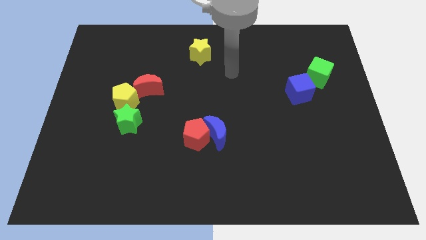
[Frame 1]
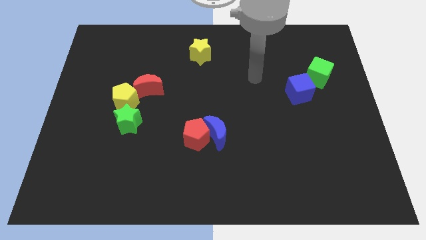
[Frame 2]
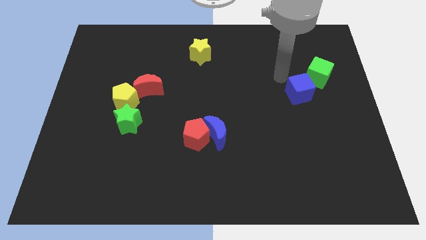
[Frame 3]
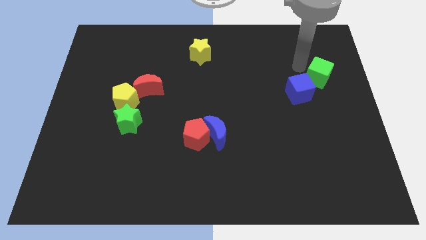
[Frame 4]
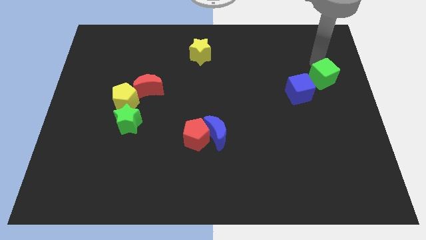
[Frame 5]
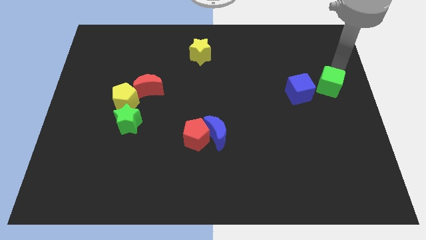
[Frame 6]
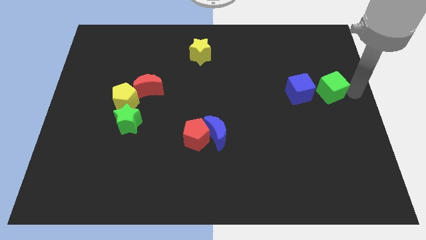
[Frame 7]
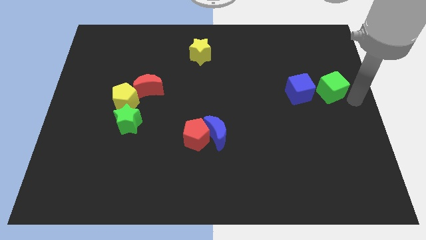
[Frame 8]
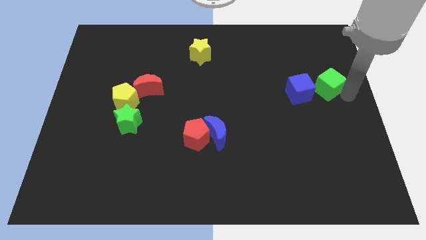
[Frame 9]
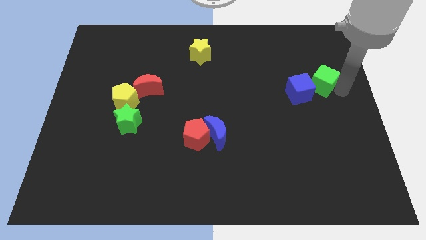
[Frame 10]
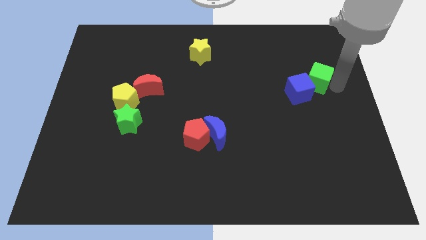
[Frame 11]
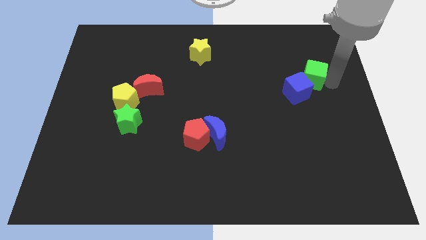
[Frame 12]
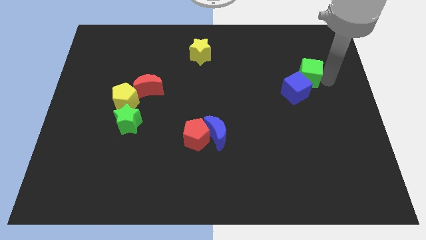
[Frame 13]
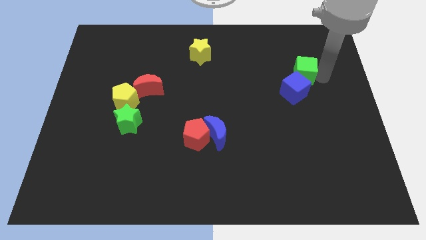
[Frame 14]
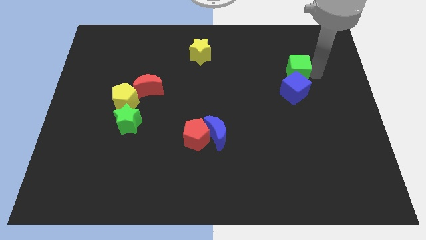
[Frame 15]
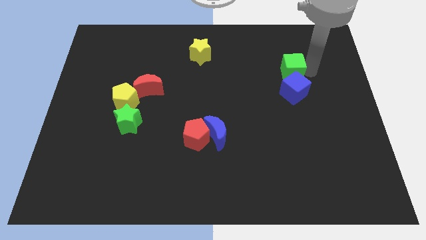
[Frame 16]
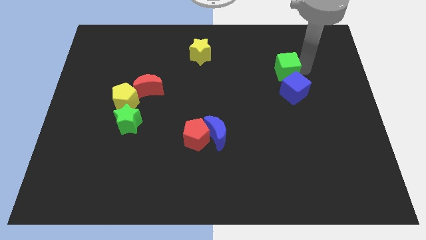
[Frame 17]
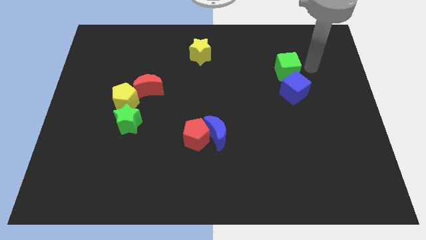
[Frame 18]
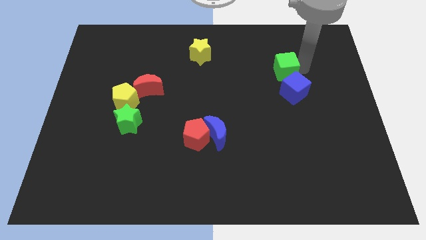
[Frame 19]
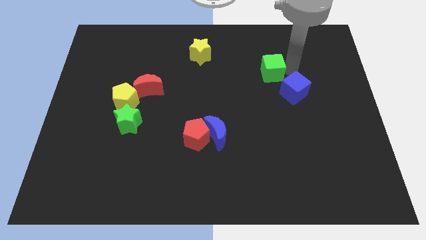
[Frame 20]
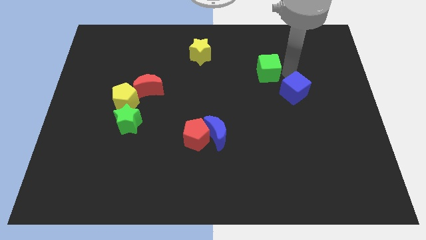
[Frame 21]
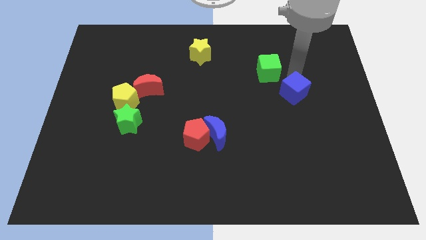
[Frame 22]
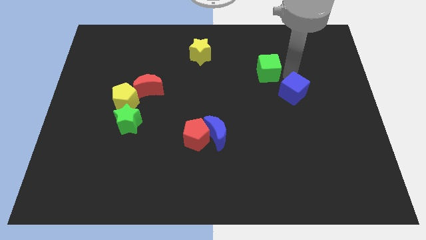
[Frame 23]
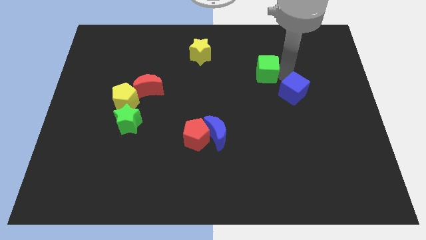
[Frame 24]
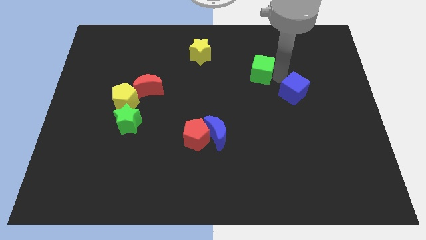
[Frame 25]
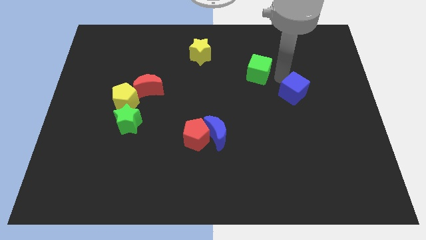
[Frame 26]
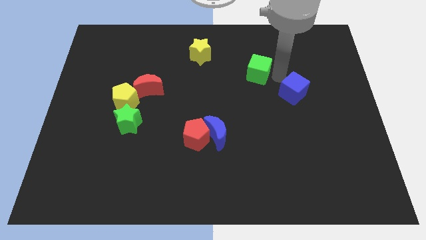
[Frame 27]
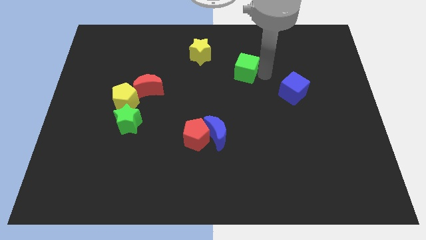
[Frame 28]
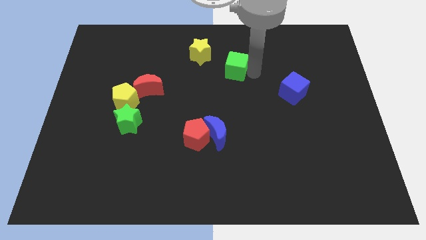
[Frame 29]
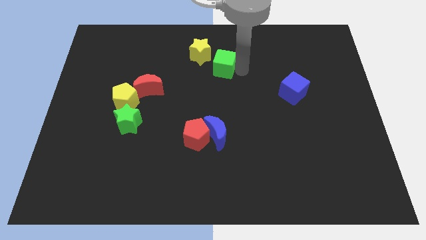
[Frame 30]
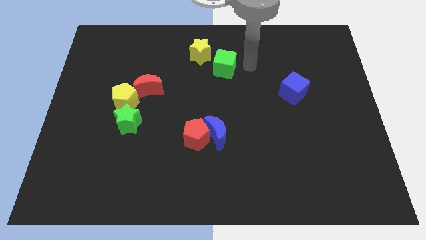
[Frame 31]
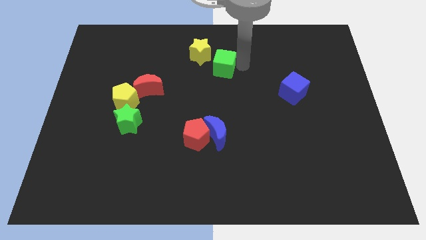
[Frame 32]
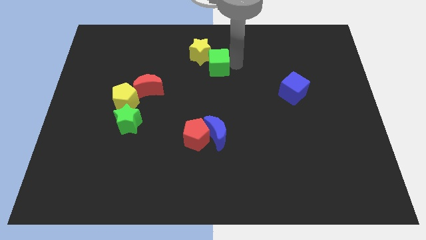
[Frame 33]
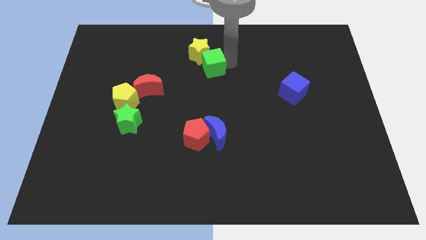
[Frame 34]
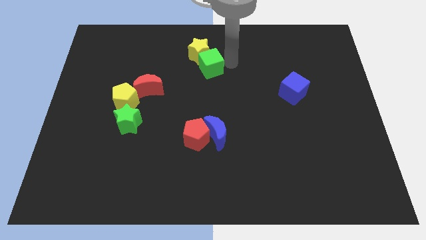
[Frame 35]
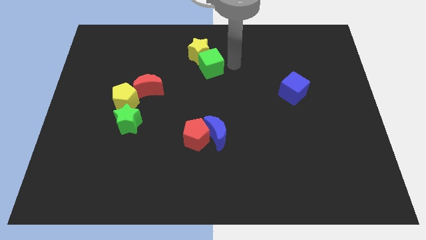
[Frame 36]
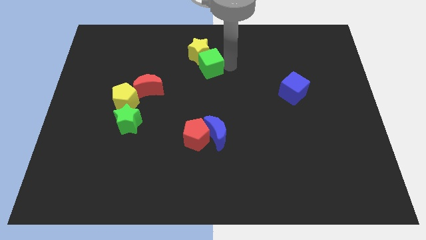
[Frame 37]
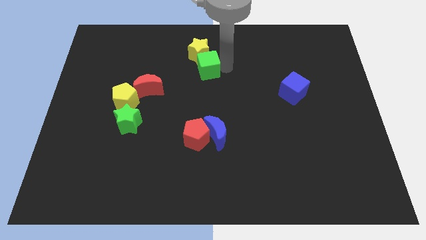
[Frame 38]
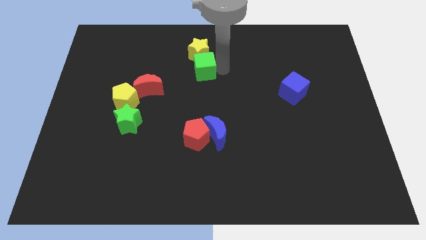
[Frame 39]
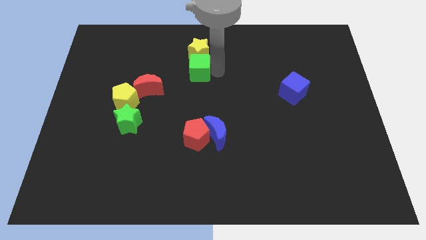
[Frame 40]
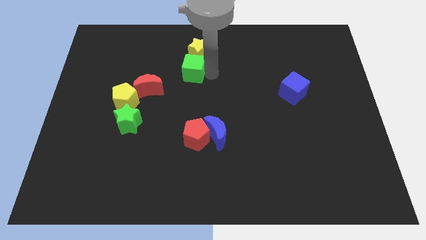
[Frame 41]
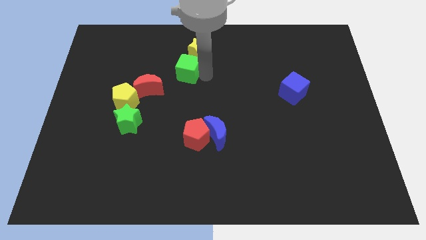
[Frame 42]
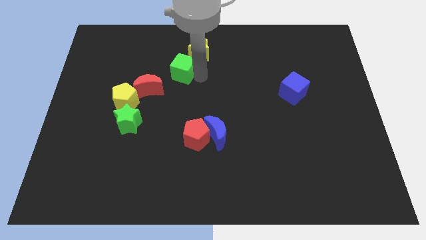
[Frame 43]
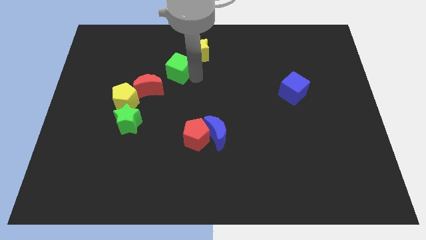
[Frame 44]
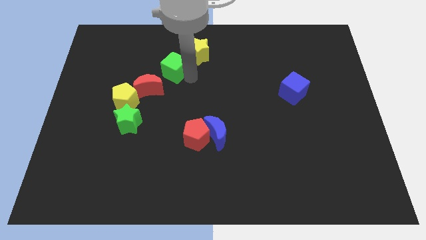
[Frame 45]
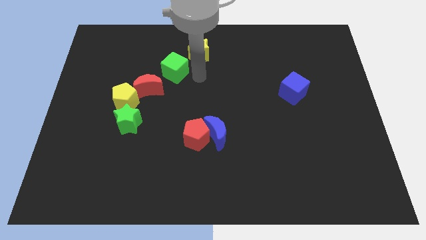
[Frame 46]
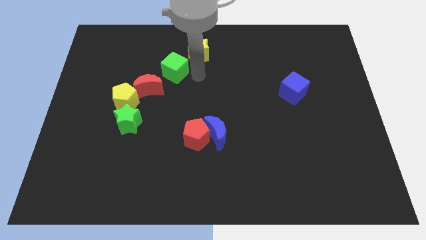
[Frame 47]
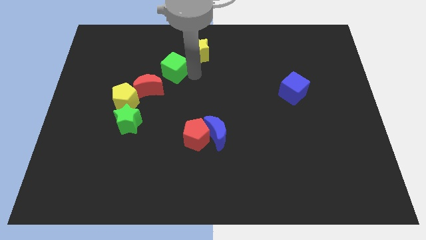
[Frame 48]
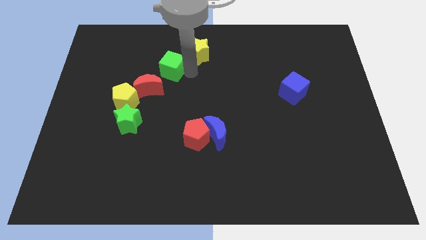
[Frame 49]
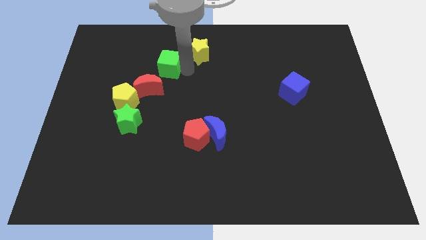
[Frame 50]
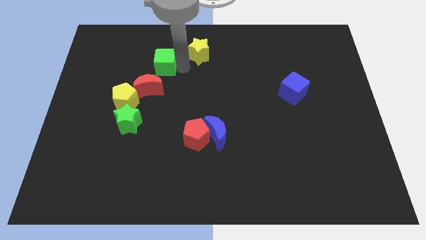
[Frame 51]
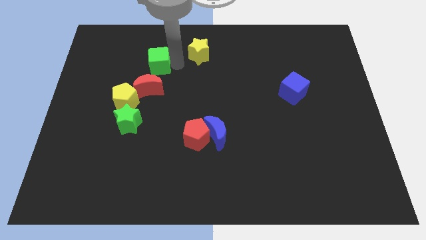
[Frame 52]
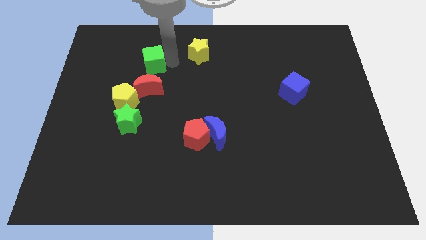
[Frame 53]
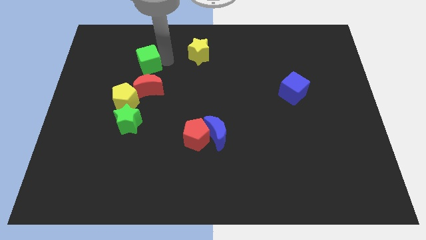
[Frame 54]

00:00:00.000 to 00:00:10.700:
move the green cube to the top of the yellow pentagon

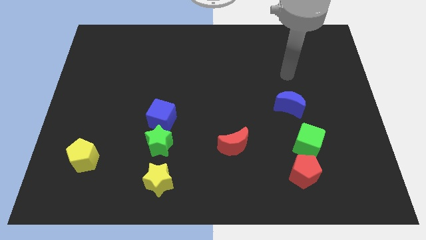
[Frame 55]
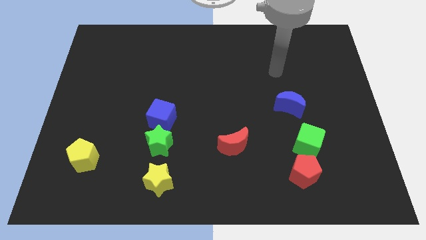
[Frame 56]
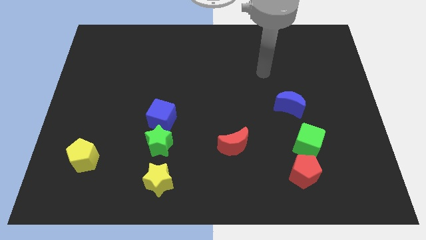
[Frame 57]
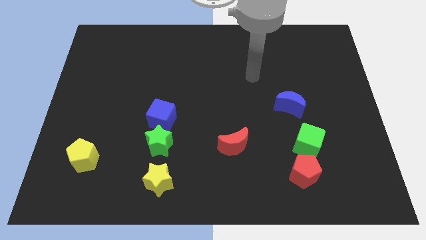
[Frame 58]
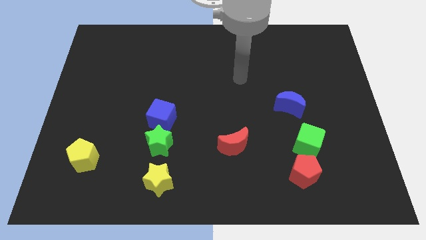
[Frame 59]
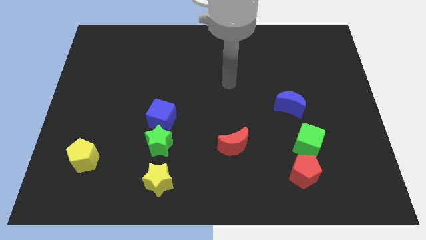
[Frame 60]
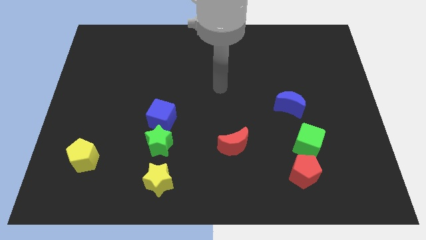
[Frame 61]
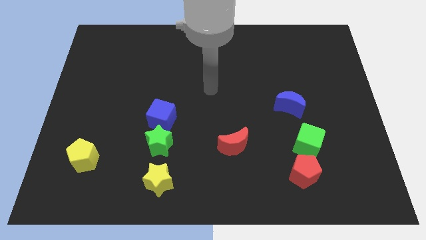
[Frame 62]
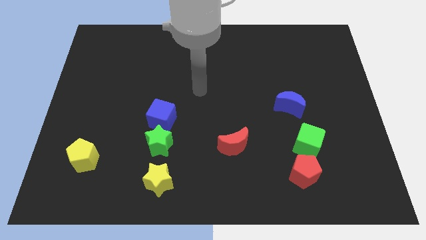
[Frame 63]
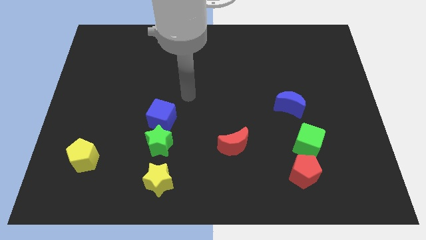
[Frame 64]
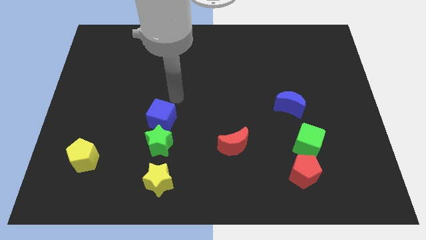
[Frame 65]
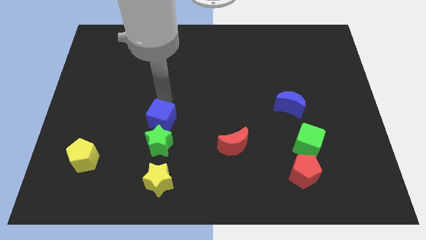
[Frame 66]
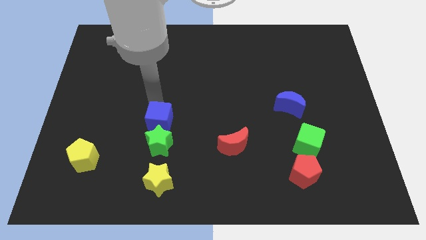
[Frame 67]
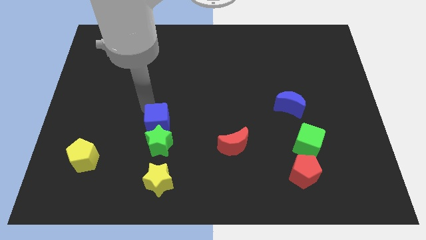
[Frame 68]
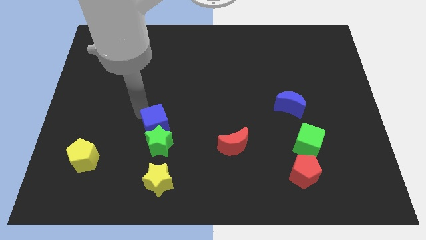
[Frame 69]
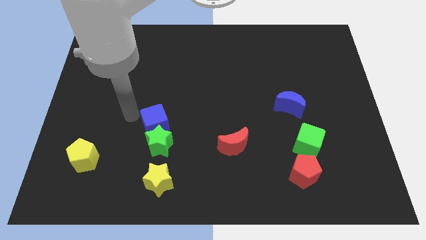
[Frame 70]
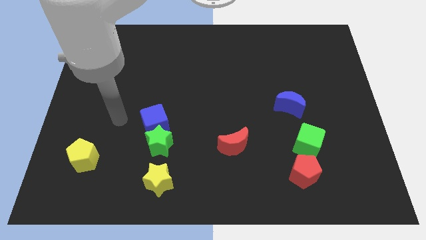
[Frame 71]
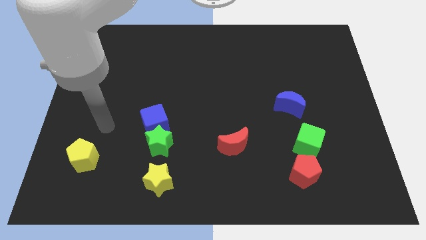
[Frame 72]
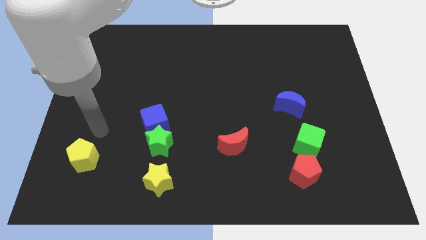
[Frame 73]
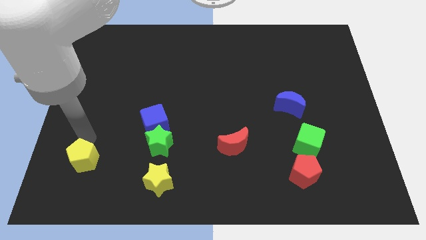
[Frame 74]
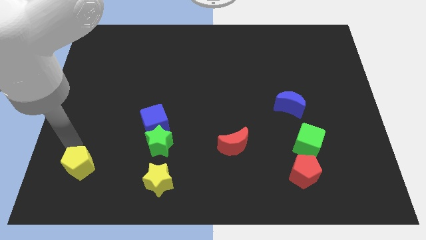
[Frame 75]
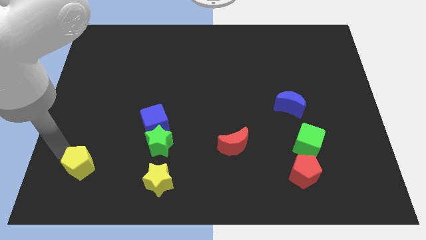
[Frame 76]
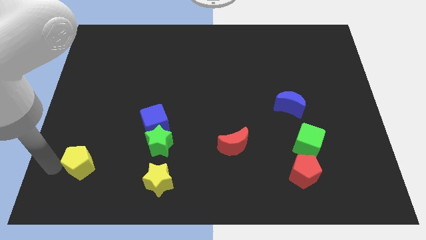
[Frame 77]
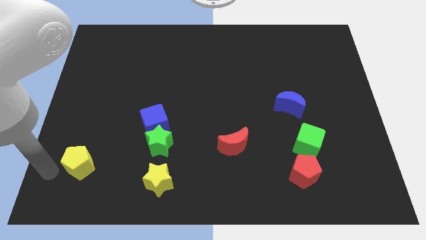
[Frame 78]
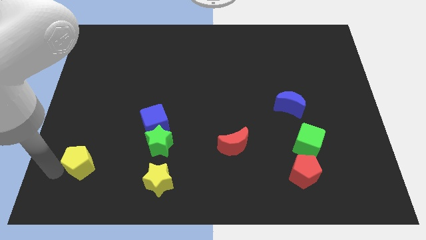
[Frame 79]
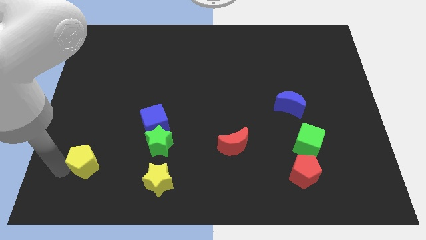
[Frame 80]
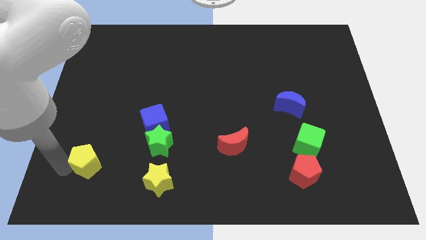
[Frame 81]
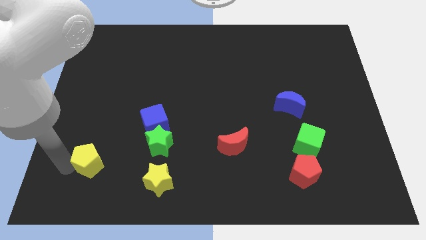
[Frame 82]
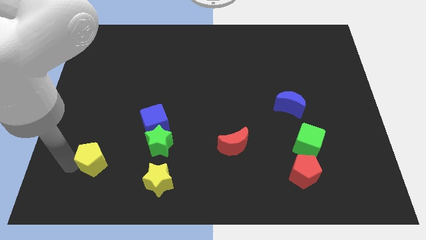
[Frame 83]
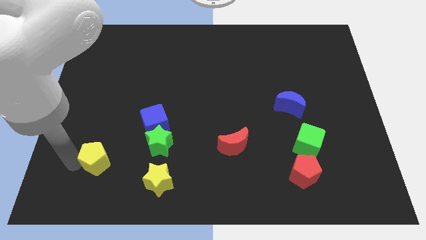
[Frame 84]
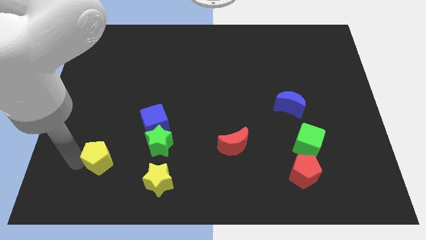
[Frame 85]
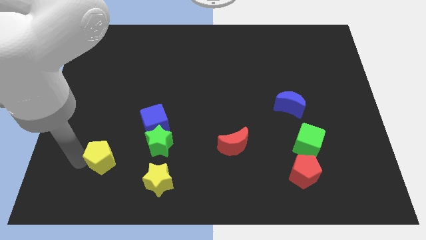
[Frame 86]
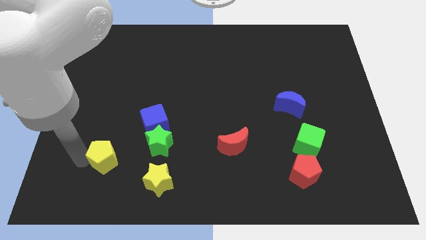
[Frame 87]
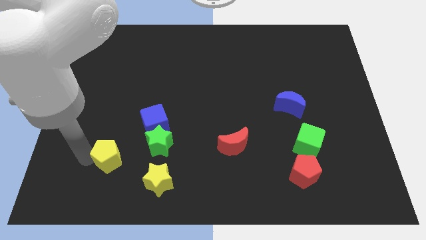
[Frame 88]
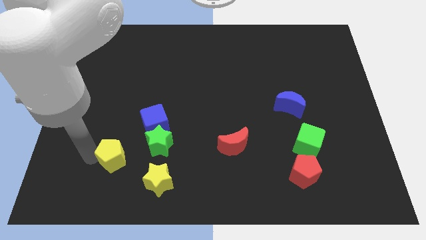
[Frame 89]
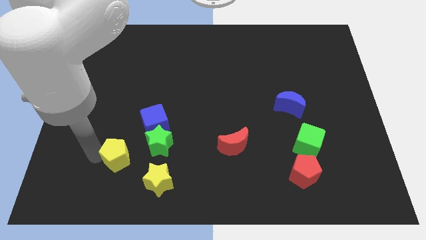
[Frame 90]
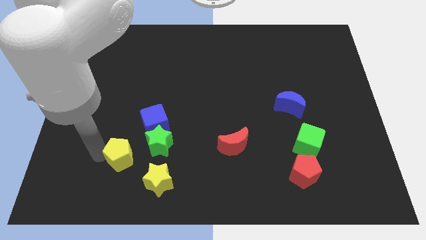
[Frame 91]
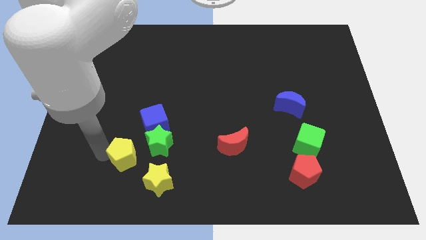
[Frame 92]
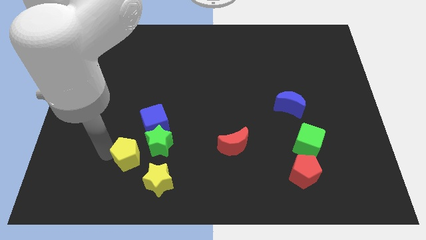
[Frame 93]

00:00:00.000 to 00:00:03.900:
slide the yellow pentagon to the bottom of the blue cube
